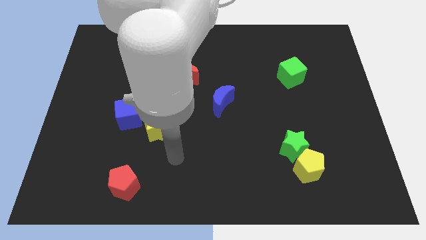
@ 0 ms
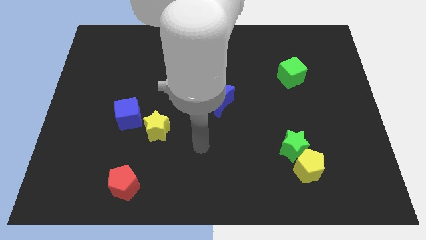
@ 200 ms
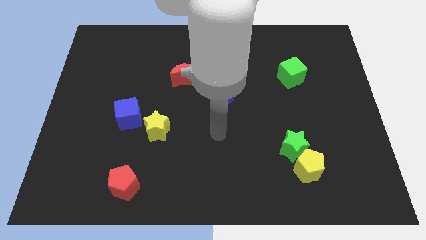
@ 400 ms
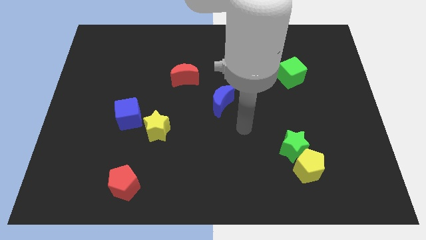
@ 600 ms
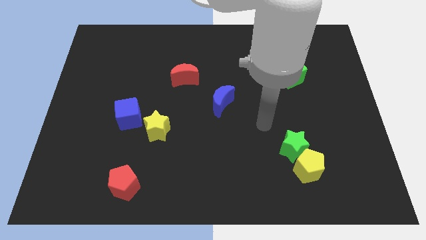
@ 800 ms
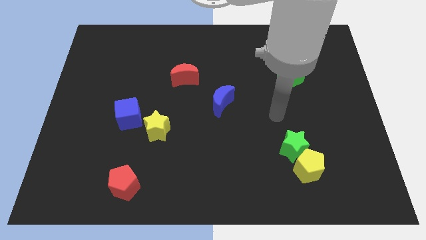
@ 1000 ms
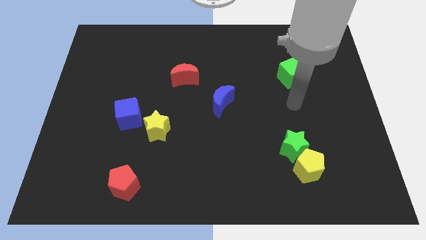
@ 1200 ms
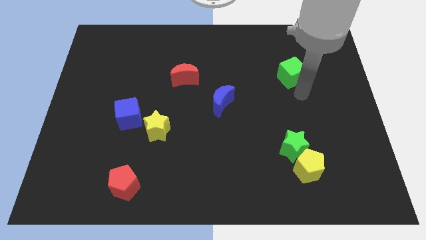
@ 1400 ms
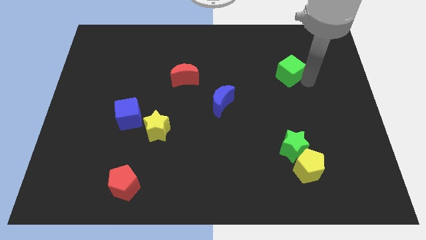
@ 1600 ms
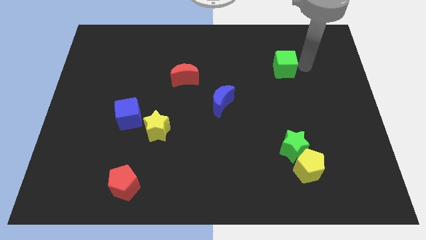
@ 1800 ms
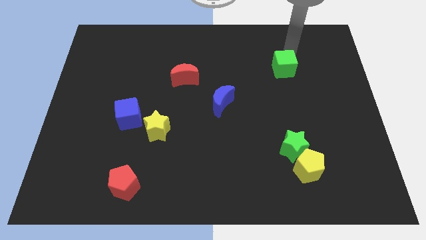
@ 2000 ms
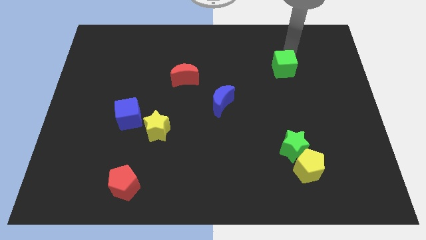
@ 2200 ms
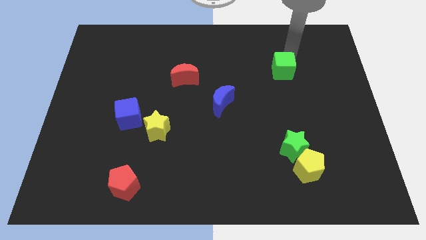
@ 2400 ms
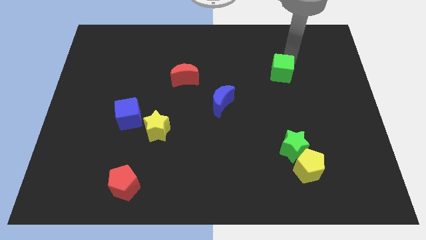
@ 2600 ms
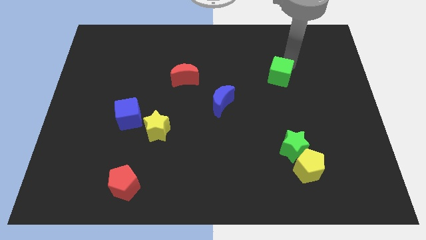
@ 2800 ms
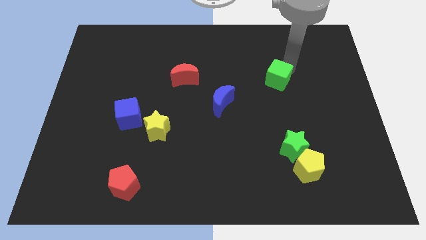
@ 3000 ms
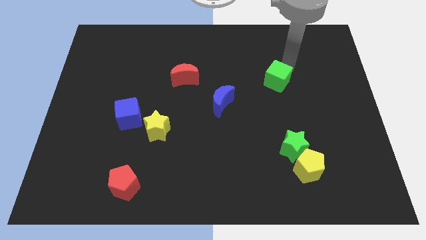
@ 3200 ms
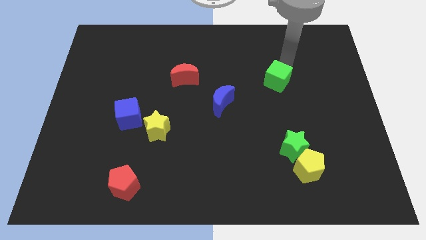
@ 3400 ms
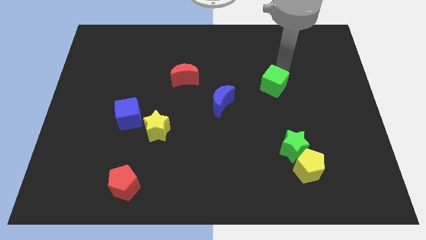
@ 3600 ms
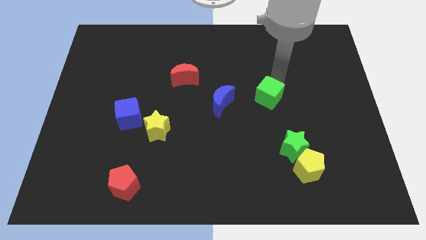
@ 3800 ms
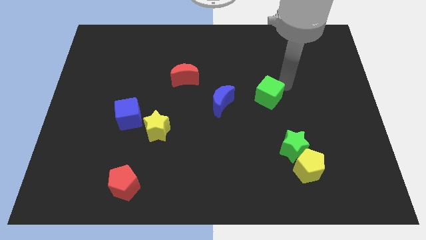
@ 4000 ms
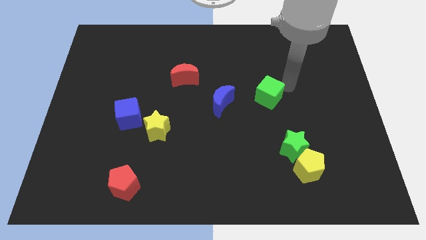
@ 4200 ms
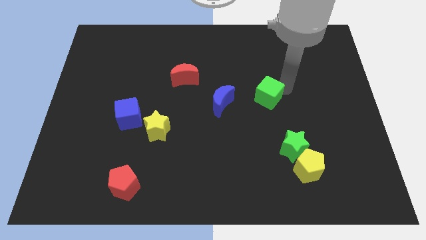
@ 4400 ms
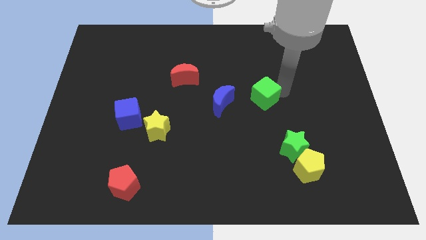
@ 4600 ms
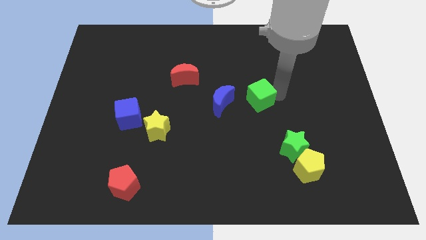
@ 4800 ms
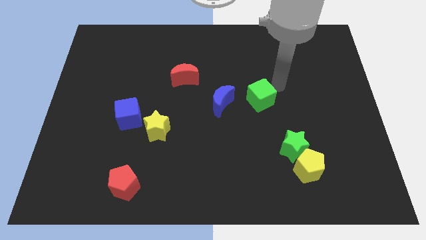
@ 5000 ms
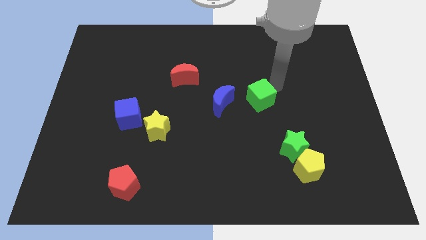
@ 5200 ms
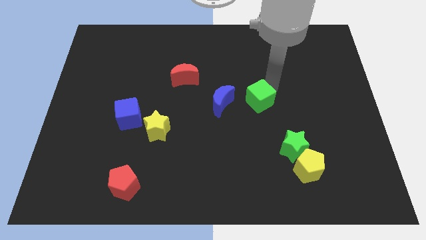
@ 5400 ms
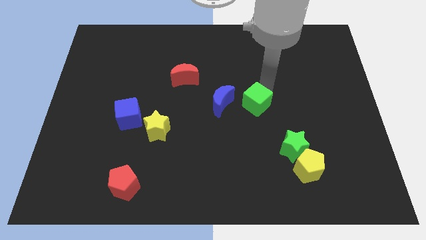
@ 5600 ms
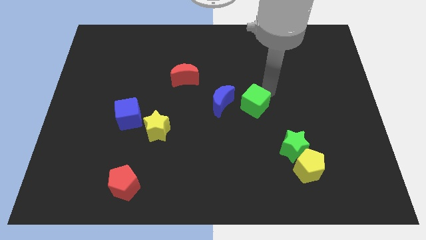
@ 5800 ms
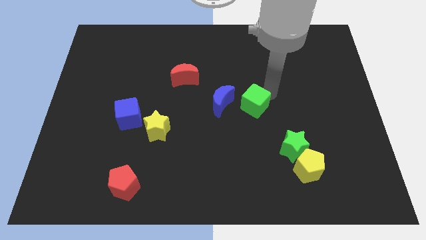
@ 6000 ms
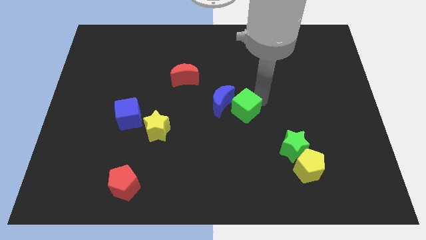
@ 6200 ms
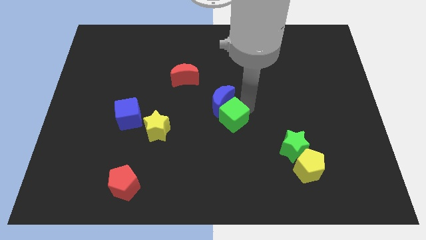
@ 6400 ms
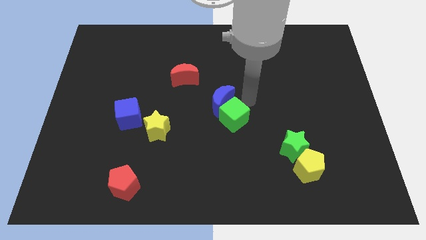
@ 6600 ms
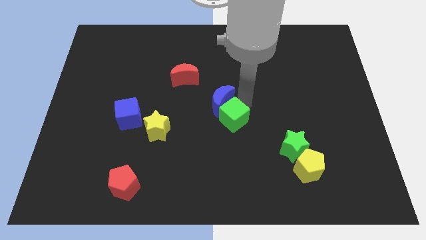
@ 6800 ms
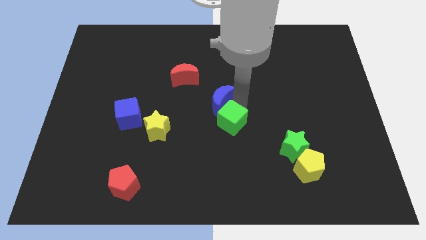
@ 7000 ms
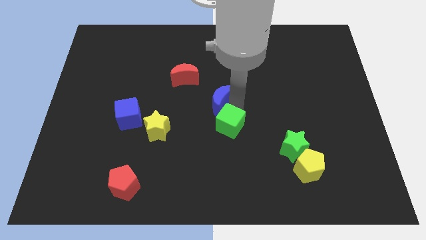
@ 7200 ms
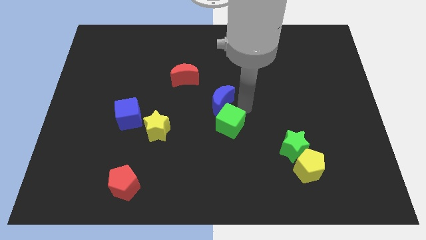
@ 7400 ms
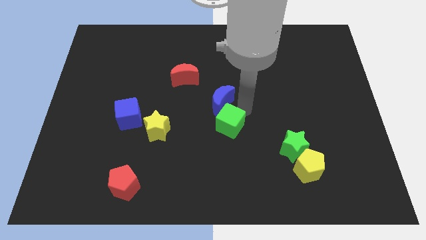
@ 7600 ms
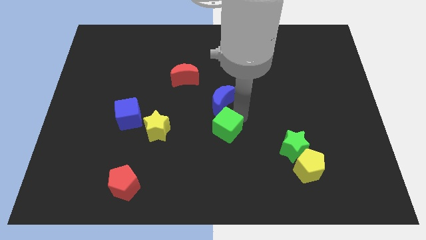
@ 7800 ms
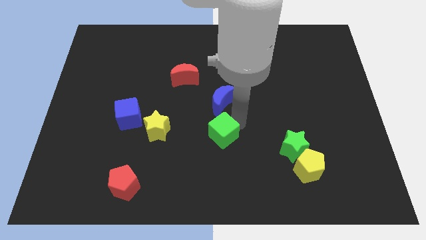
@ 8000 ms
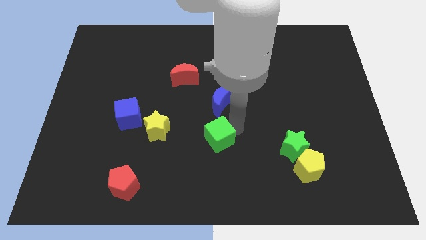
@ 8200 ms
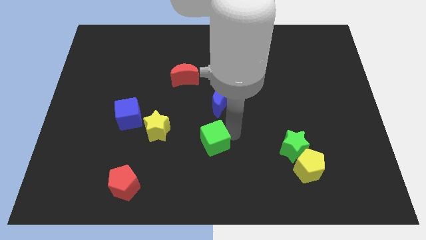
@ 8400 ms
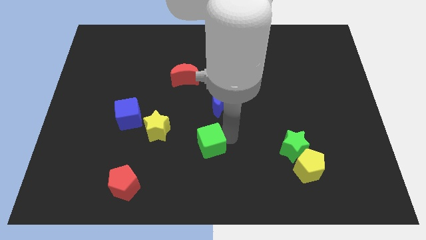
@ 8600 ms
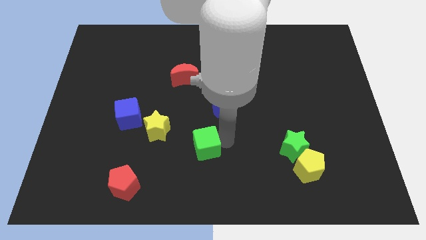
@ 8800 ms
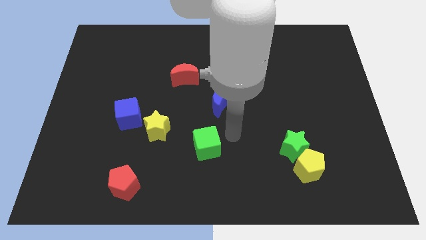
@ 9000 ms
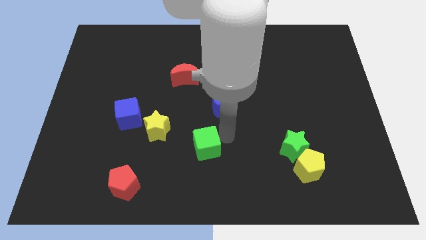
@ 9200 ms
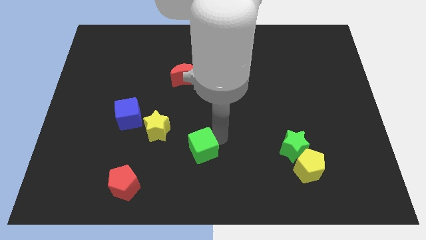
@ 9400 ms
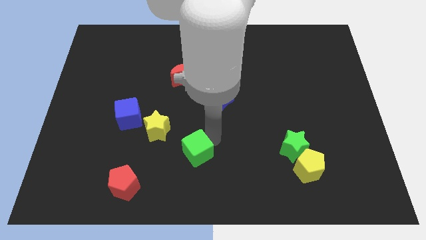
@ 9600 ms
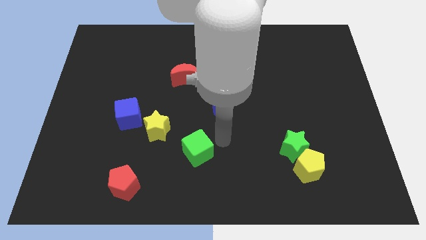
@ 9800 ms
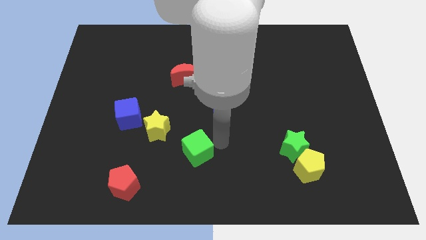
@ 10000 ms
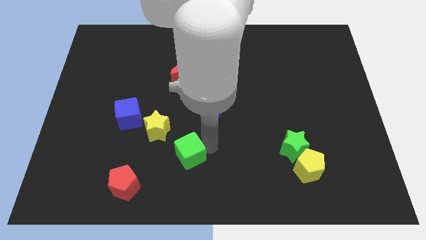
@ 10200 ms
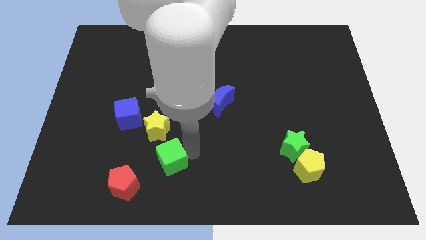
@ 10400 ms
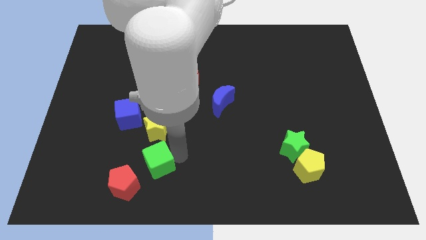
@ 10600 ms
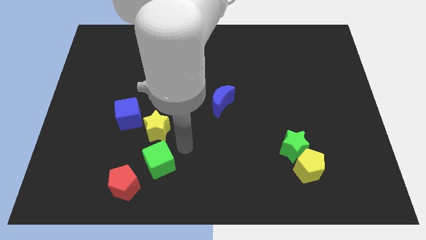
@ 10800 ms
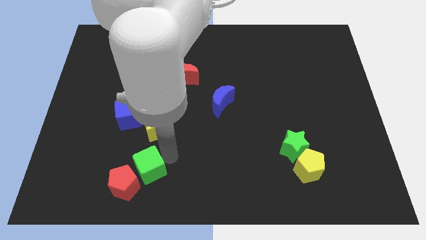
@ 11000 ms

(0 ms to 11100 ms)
put the green cube close to the red pentagon

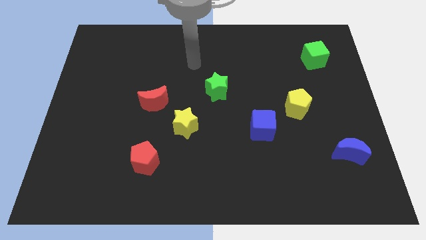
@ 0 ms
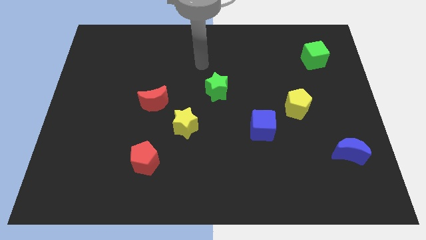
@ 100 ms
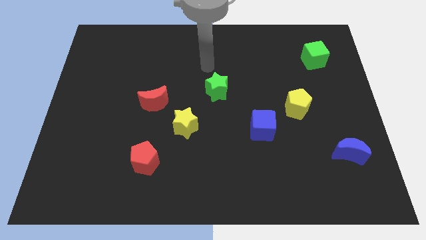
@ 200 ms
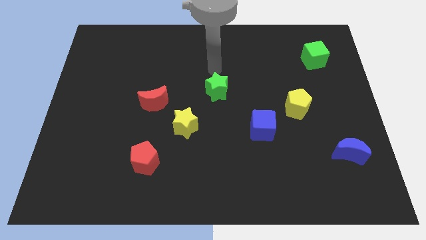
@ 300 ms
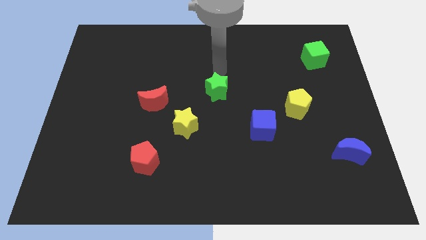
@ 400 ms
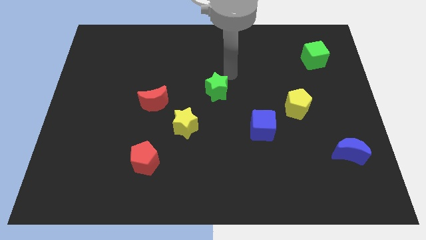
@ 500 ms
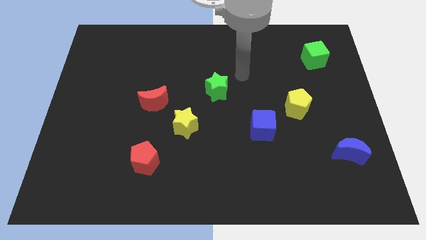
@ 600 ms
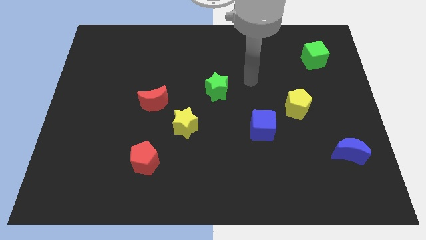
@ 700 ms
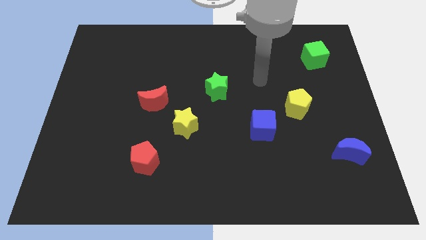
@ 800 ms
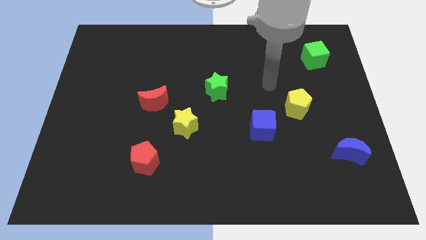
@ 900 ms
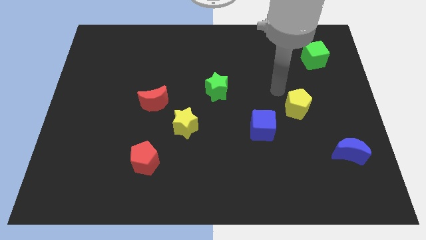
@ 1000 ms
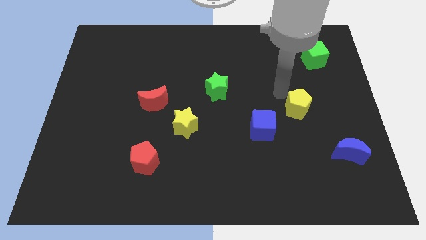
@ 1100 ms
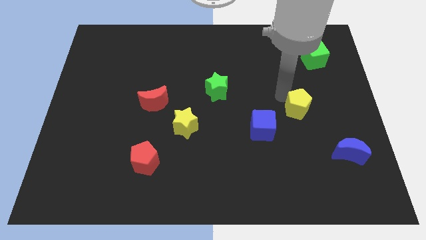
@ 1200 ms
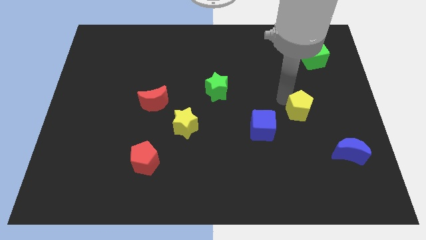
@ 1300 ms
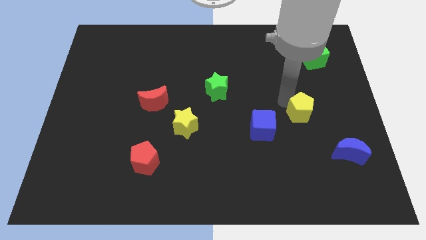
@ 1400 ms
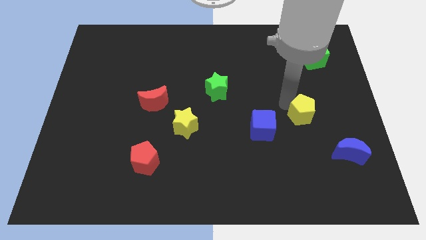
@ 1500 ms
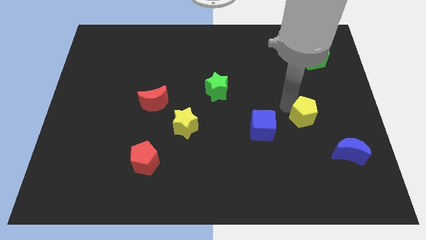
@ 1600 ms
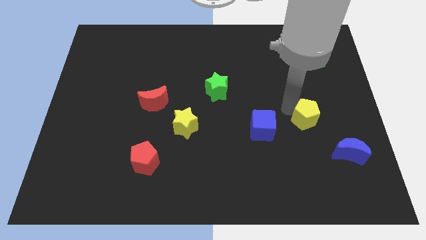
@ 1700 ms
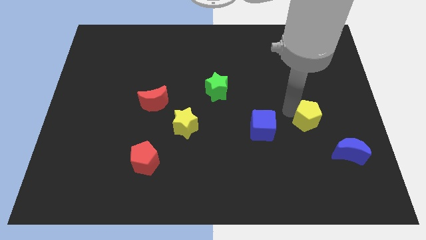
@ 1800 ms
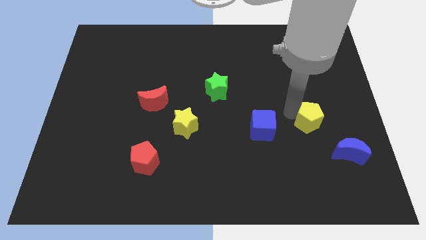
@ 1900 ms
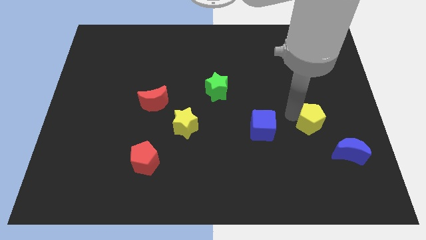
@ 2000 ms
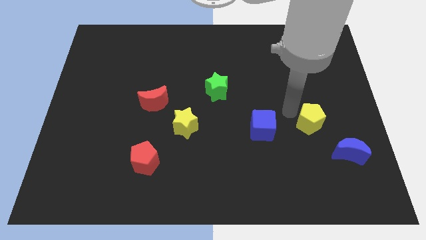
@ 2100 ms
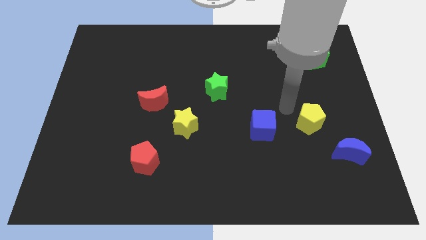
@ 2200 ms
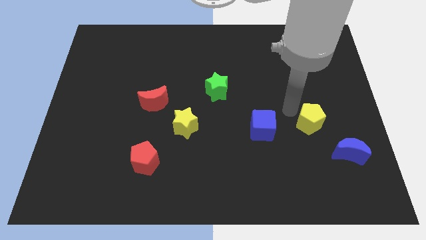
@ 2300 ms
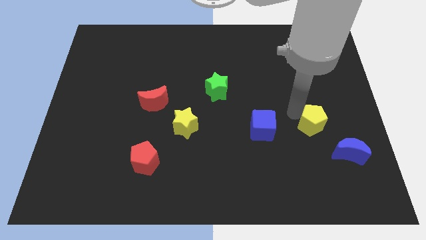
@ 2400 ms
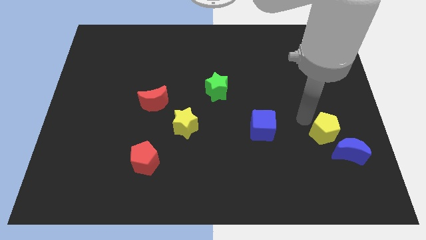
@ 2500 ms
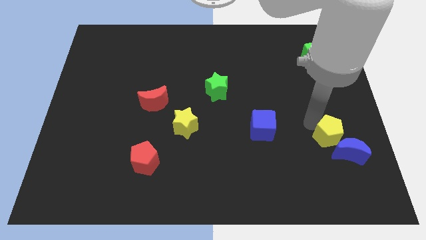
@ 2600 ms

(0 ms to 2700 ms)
push the yellow pentagon close to the blue moon
